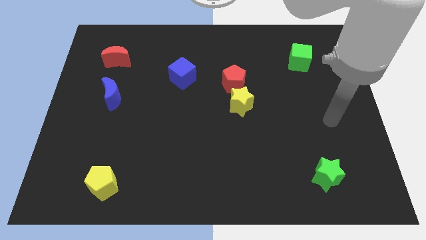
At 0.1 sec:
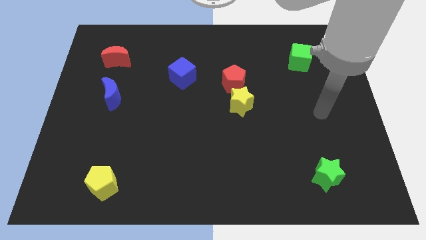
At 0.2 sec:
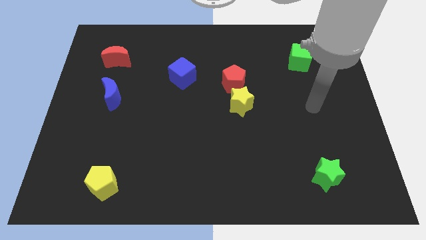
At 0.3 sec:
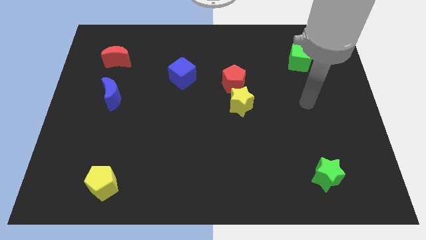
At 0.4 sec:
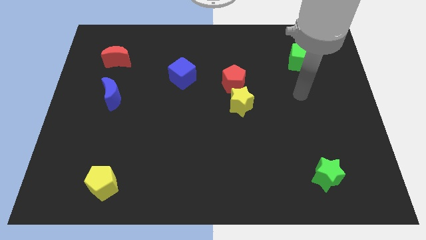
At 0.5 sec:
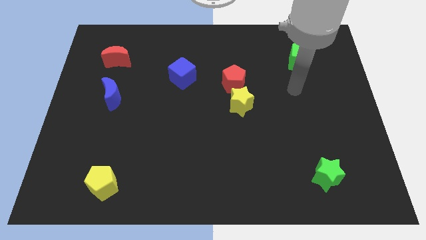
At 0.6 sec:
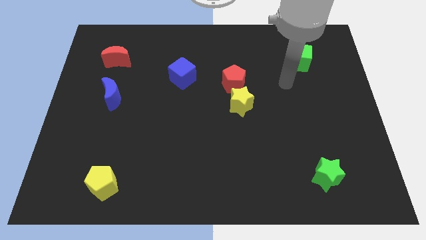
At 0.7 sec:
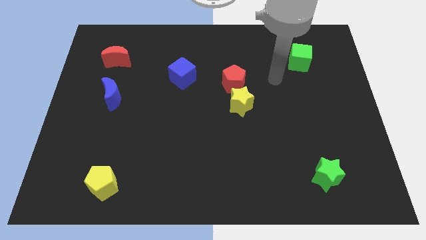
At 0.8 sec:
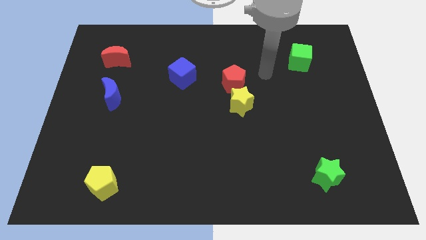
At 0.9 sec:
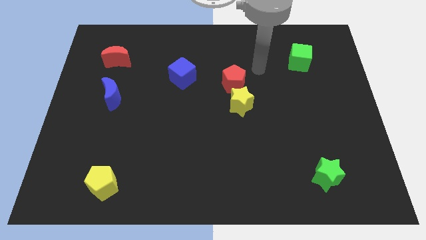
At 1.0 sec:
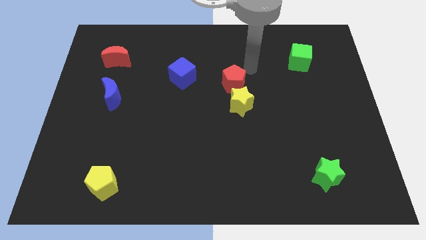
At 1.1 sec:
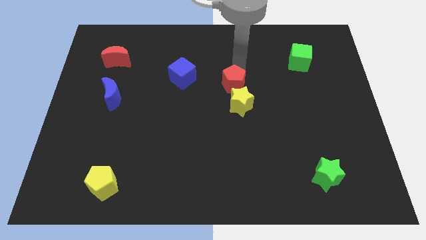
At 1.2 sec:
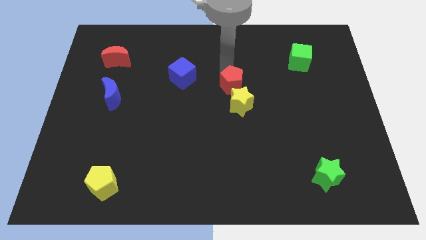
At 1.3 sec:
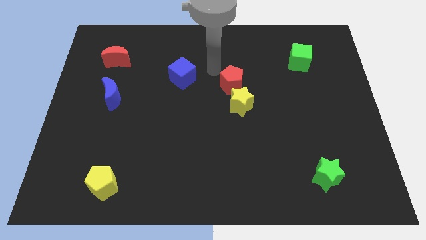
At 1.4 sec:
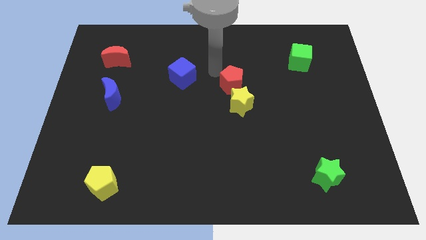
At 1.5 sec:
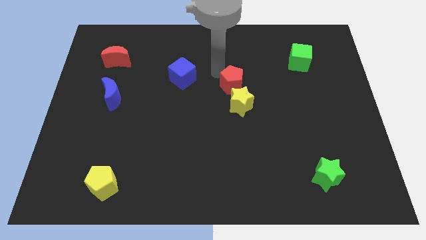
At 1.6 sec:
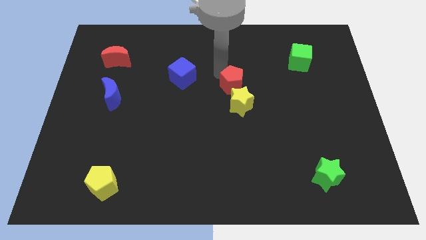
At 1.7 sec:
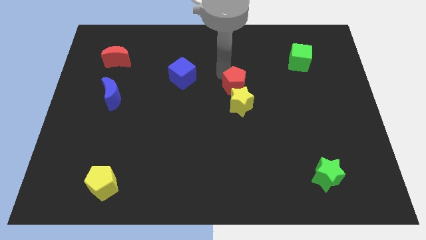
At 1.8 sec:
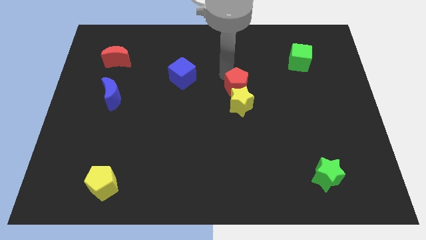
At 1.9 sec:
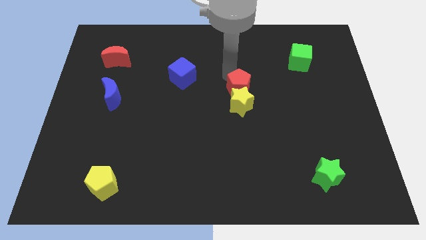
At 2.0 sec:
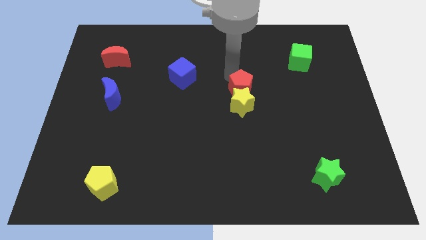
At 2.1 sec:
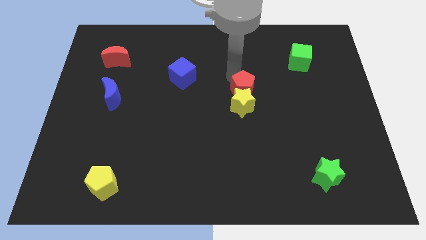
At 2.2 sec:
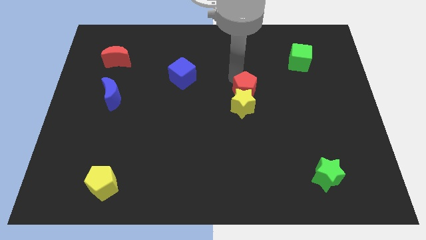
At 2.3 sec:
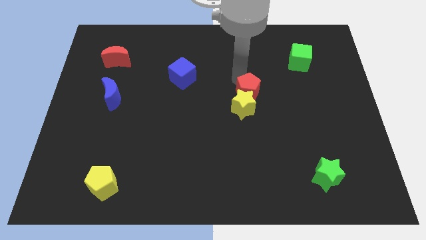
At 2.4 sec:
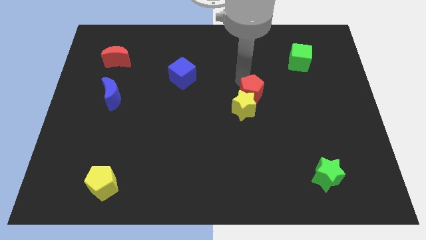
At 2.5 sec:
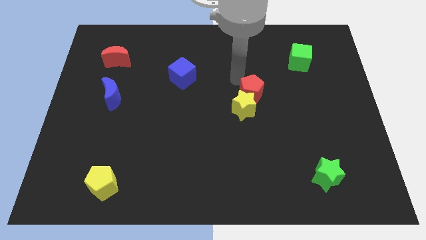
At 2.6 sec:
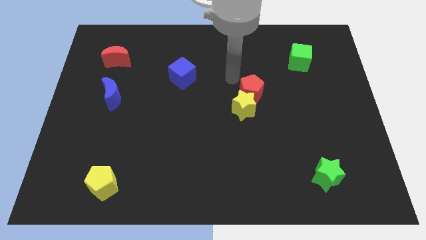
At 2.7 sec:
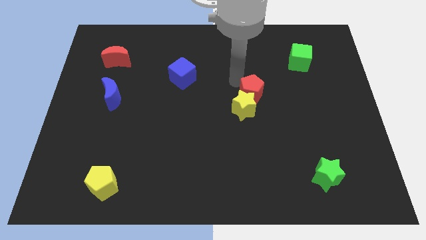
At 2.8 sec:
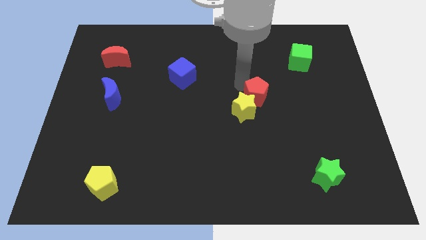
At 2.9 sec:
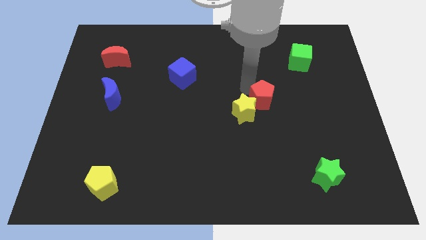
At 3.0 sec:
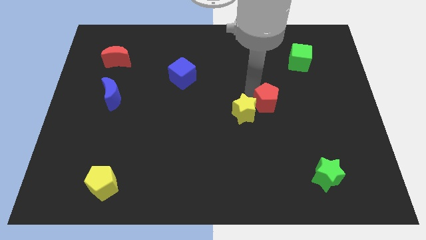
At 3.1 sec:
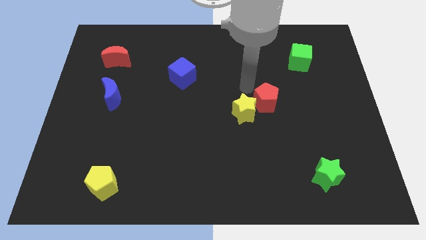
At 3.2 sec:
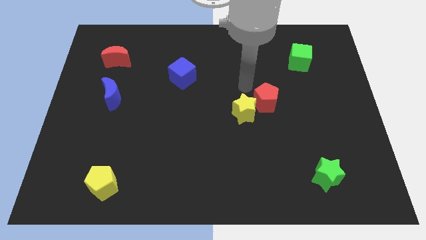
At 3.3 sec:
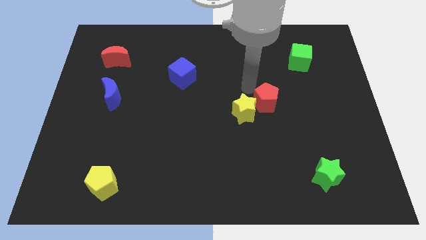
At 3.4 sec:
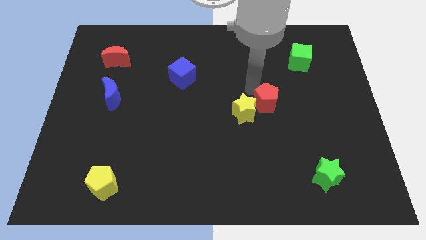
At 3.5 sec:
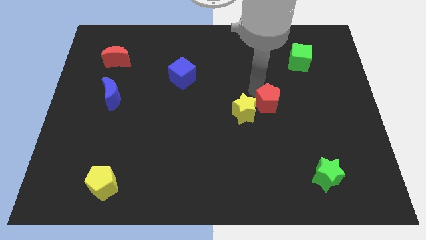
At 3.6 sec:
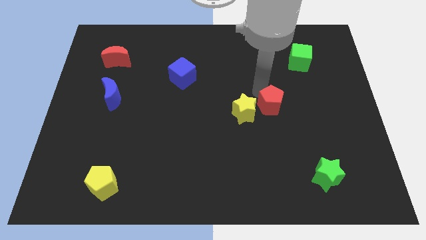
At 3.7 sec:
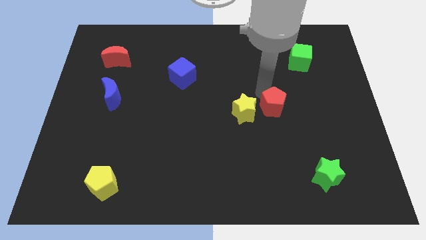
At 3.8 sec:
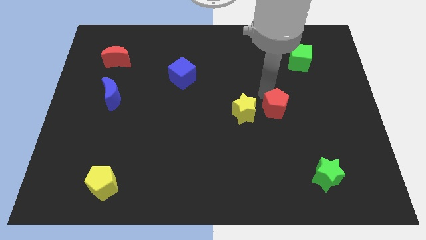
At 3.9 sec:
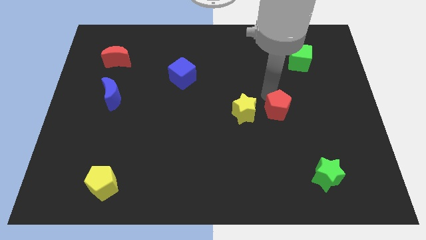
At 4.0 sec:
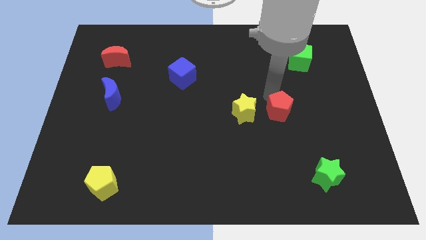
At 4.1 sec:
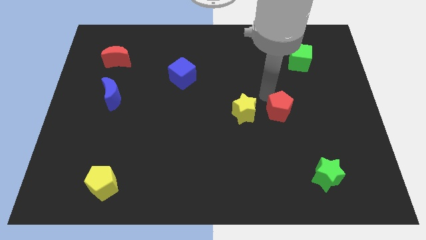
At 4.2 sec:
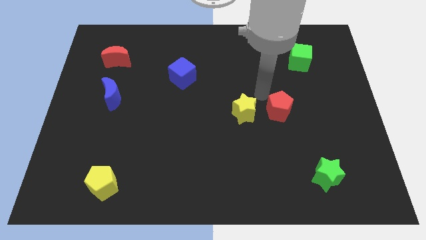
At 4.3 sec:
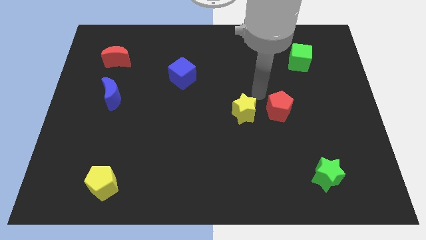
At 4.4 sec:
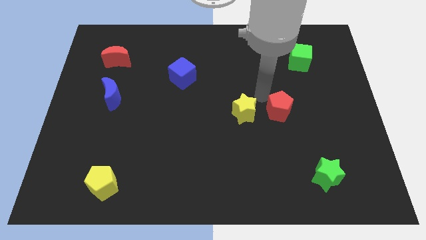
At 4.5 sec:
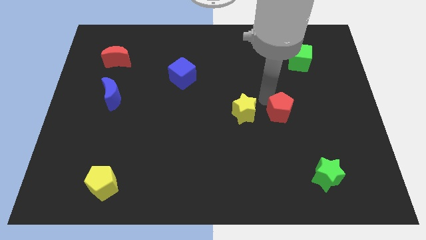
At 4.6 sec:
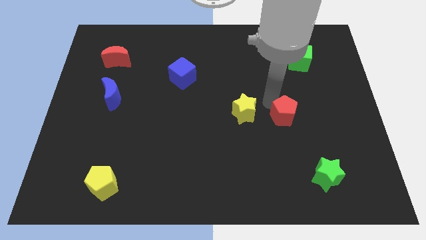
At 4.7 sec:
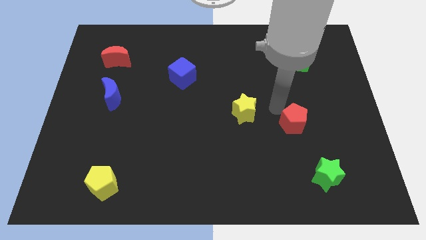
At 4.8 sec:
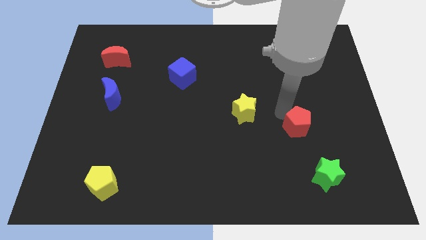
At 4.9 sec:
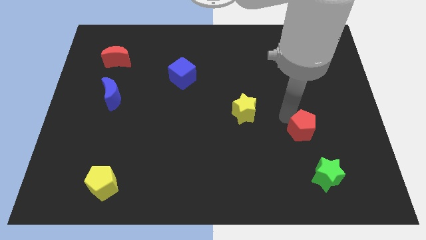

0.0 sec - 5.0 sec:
push the red pentagon diagonally down and to the right

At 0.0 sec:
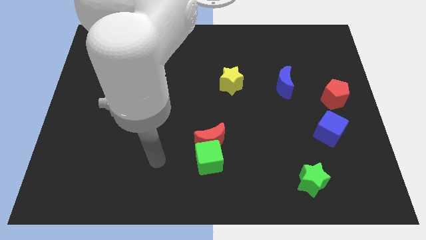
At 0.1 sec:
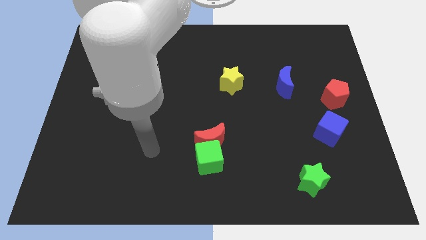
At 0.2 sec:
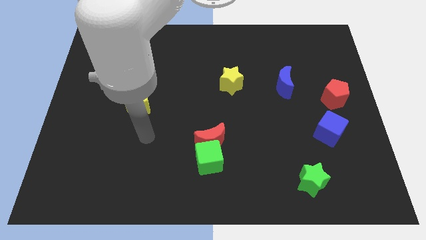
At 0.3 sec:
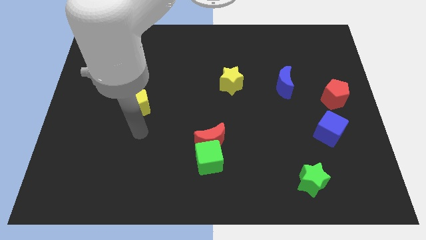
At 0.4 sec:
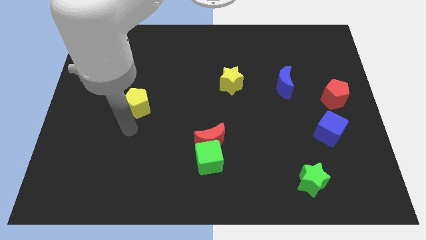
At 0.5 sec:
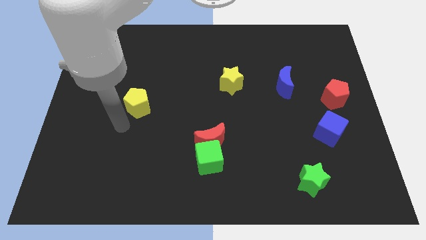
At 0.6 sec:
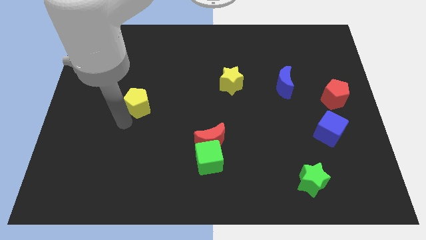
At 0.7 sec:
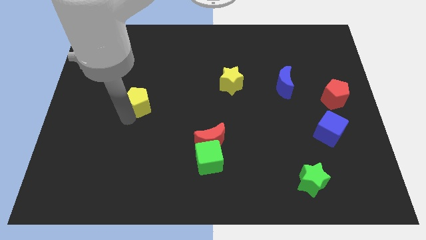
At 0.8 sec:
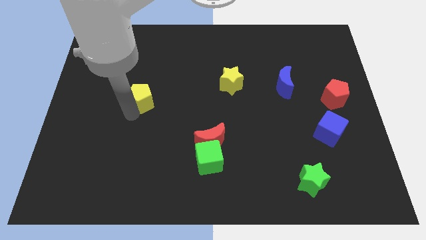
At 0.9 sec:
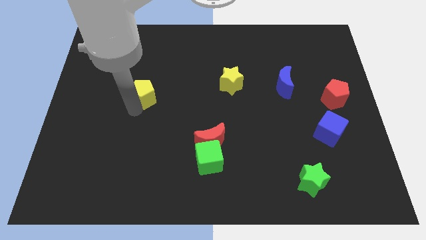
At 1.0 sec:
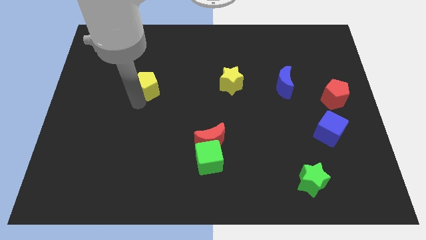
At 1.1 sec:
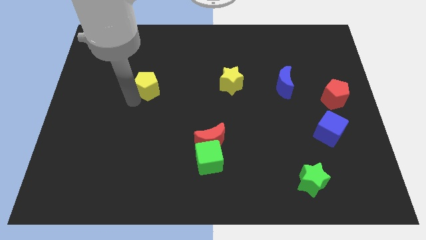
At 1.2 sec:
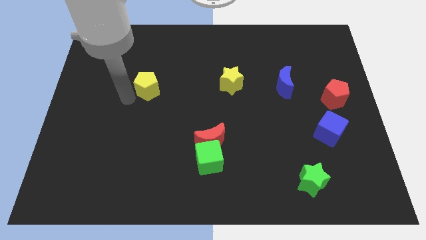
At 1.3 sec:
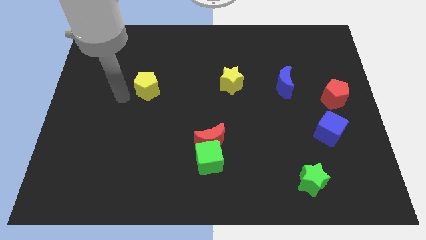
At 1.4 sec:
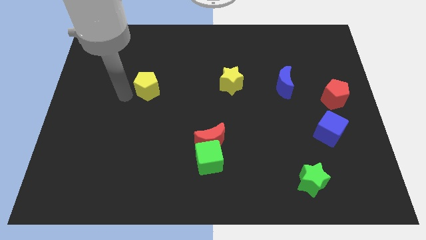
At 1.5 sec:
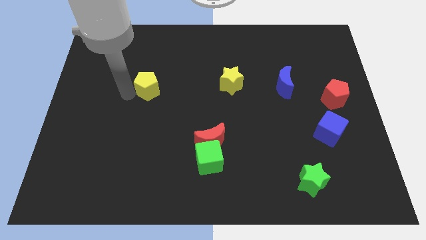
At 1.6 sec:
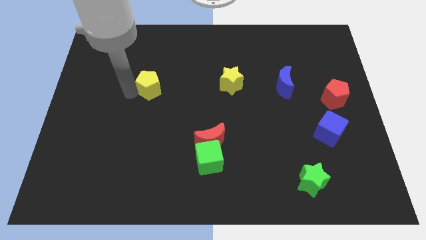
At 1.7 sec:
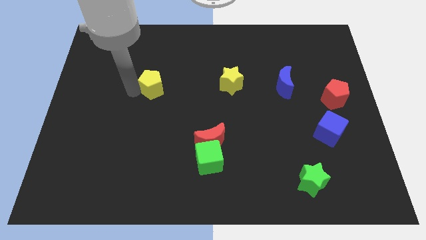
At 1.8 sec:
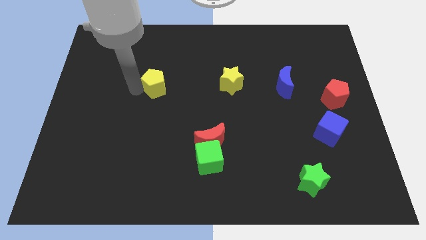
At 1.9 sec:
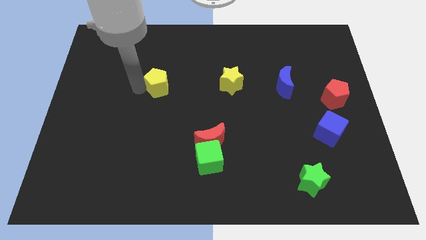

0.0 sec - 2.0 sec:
slightly slide the yellow pentagon upwards and to the right diagonally

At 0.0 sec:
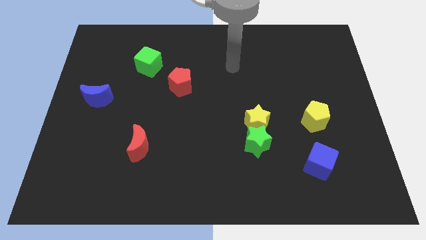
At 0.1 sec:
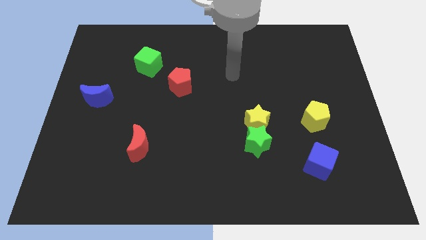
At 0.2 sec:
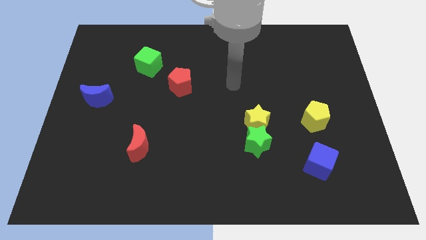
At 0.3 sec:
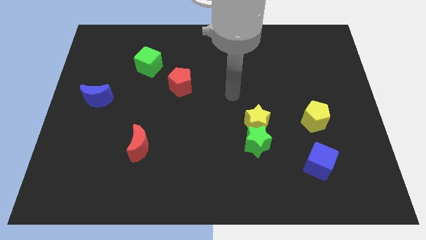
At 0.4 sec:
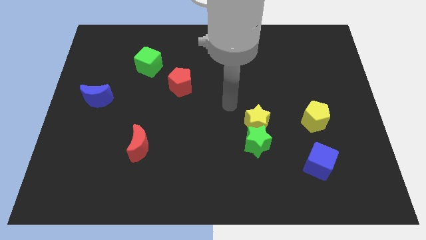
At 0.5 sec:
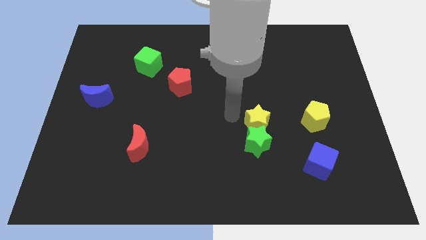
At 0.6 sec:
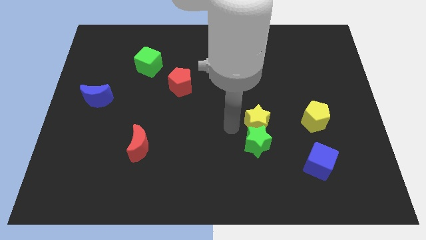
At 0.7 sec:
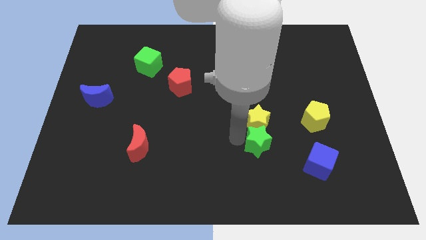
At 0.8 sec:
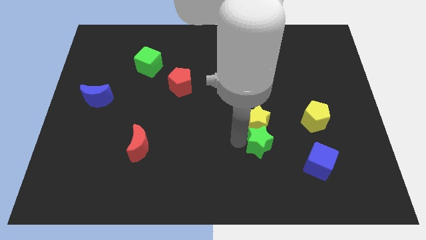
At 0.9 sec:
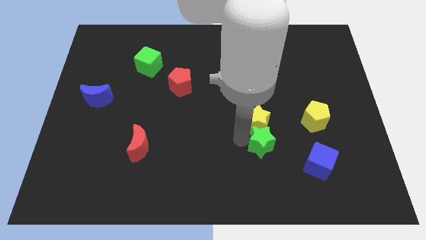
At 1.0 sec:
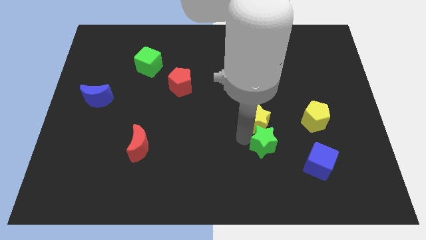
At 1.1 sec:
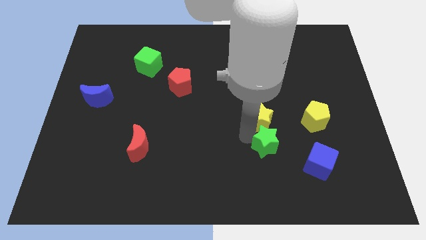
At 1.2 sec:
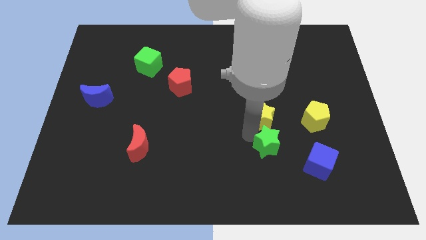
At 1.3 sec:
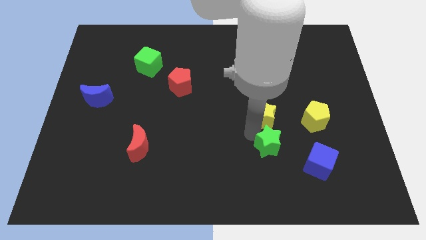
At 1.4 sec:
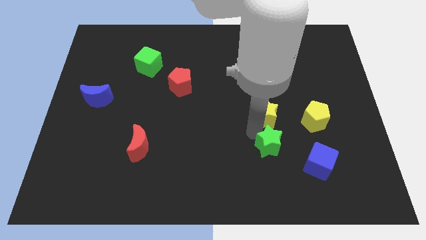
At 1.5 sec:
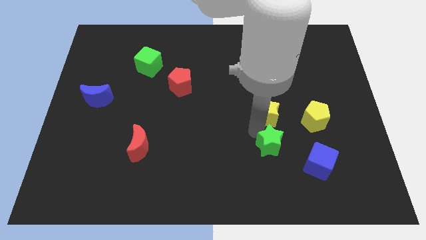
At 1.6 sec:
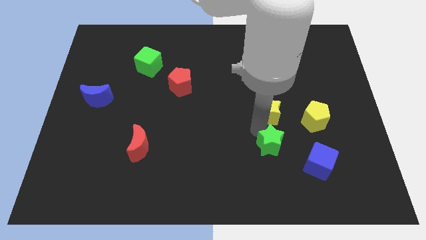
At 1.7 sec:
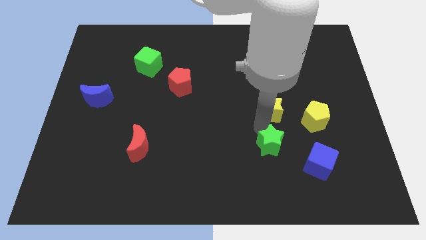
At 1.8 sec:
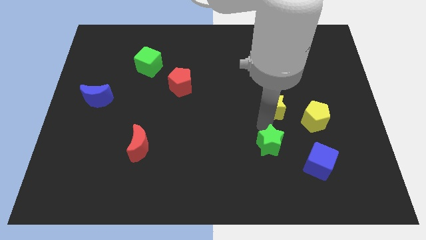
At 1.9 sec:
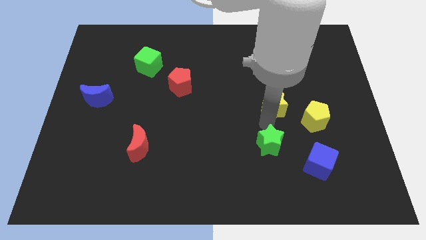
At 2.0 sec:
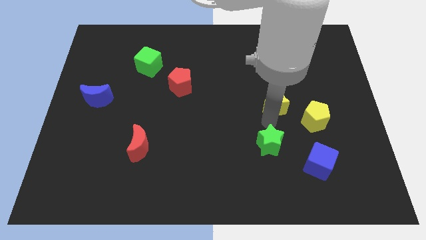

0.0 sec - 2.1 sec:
slightly push the yellow star upwards and right
